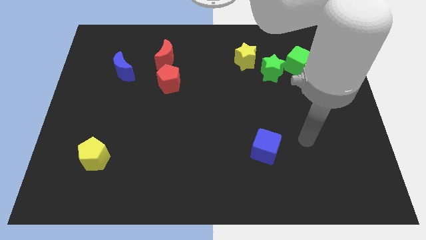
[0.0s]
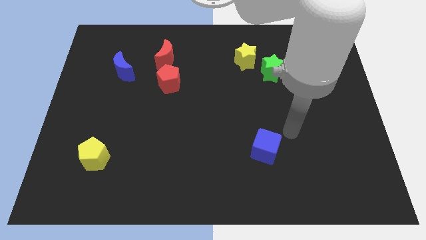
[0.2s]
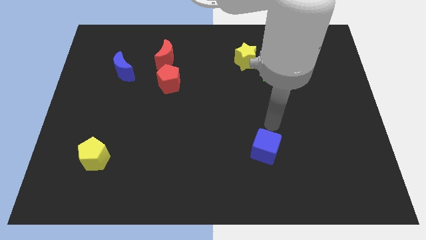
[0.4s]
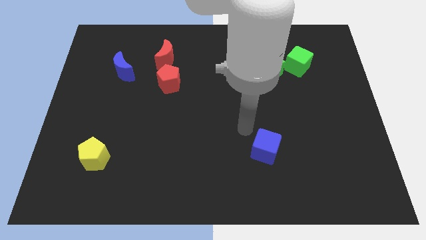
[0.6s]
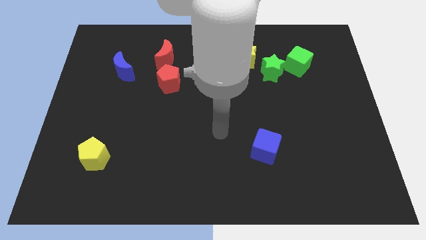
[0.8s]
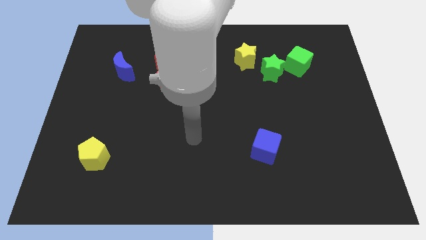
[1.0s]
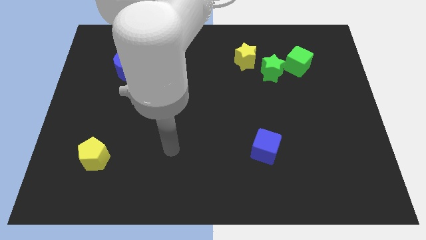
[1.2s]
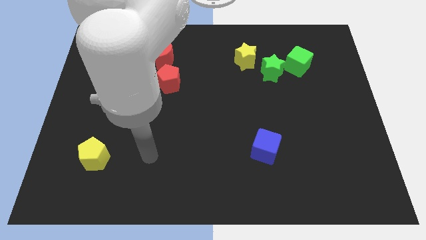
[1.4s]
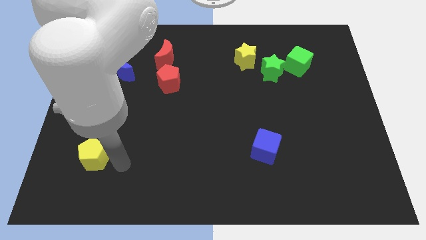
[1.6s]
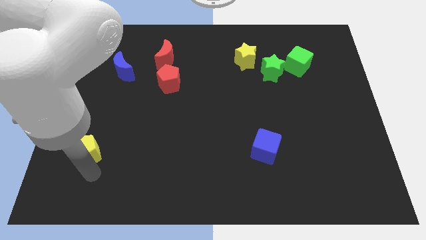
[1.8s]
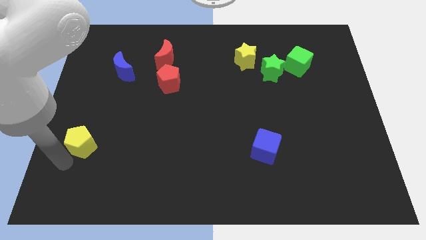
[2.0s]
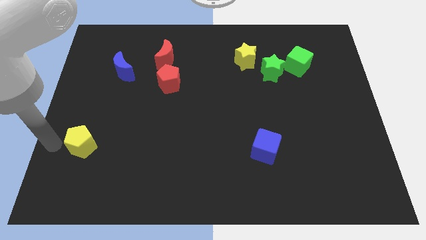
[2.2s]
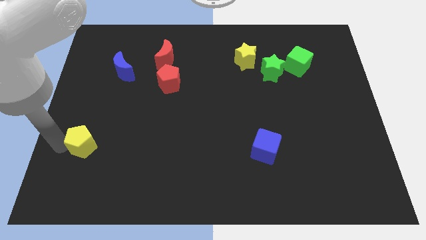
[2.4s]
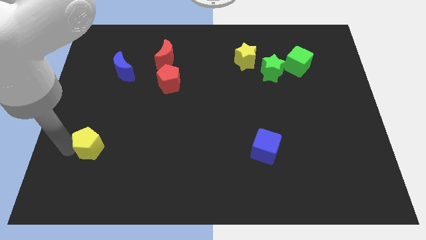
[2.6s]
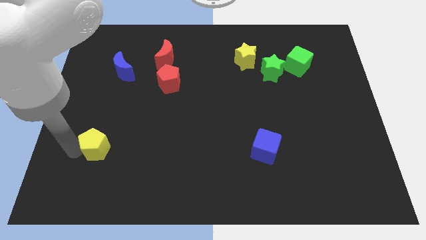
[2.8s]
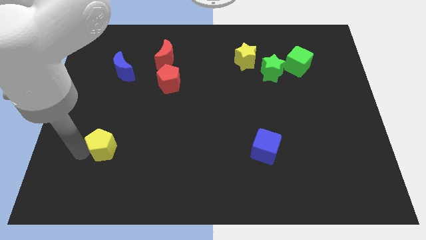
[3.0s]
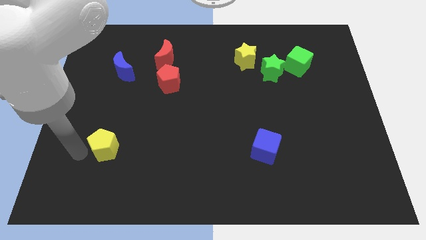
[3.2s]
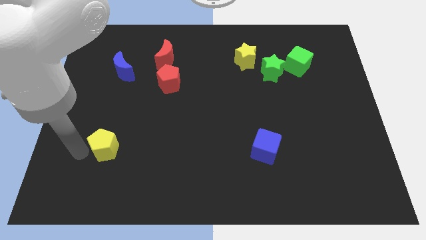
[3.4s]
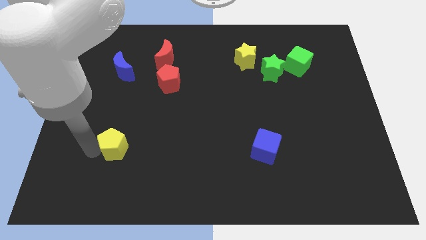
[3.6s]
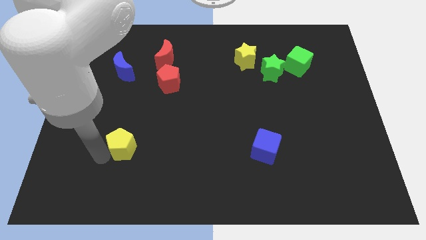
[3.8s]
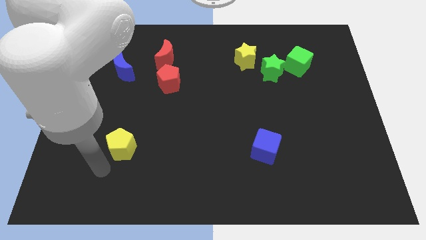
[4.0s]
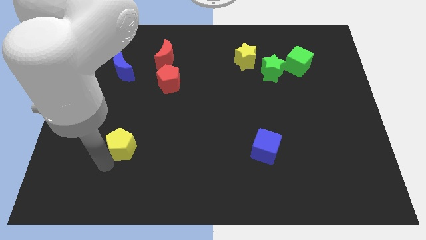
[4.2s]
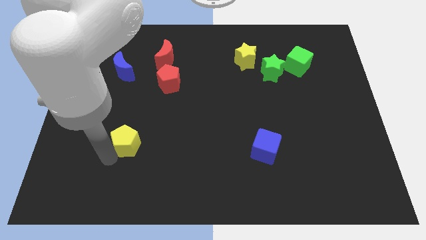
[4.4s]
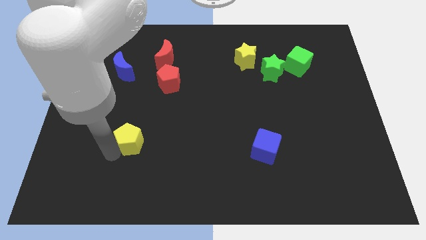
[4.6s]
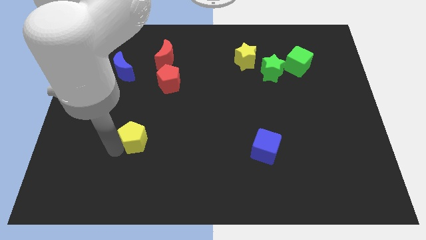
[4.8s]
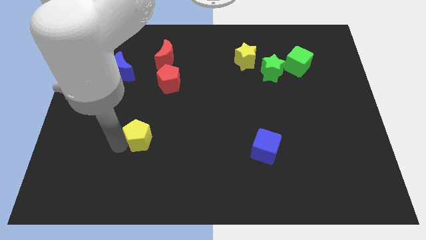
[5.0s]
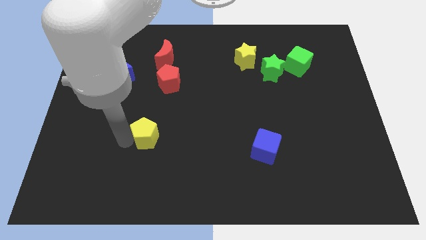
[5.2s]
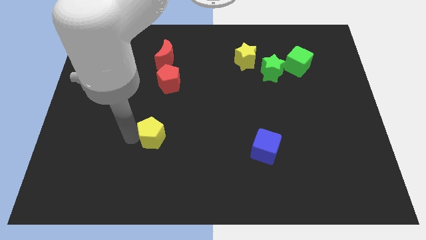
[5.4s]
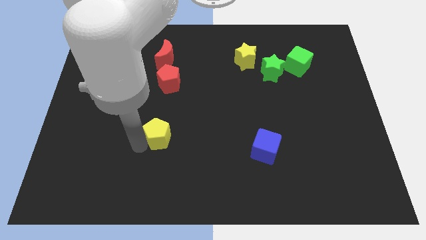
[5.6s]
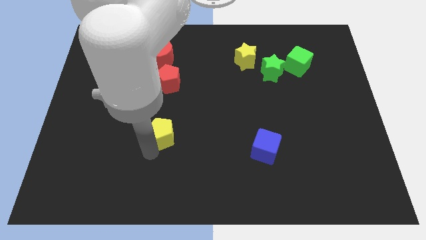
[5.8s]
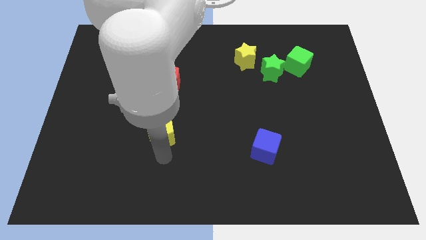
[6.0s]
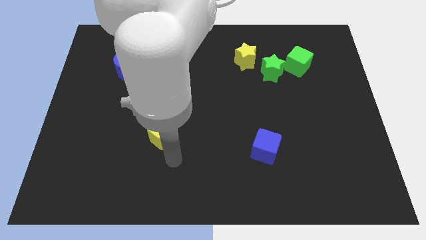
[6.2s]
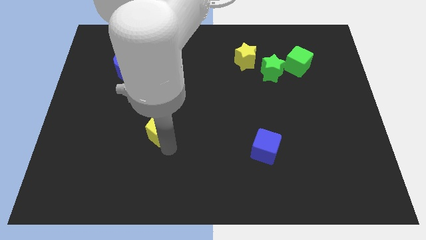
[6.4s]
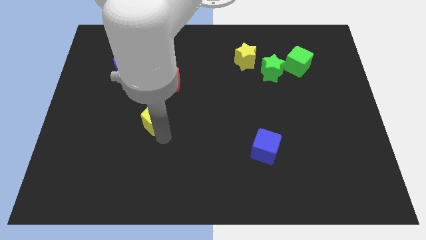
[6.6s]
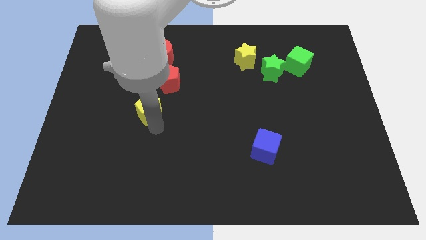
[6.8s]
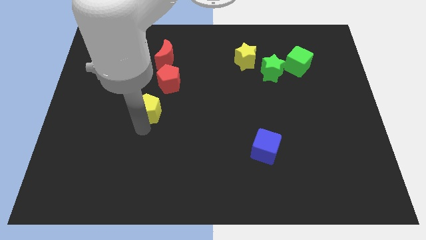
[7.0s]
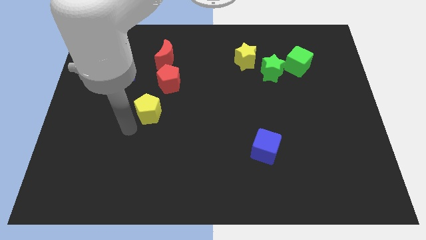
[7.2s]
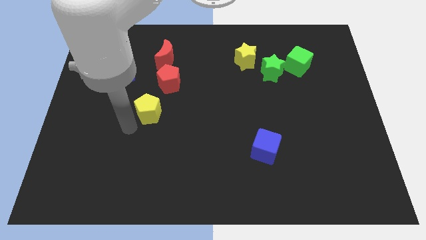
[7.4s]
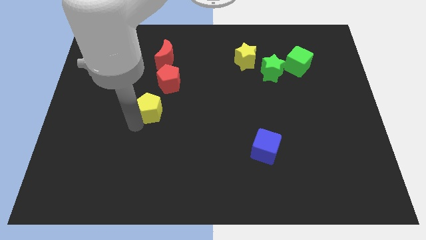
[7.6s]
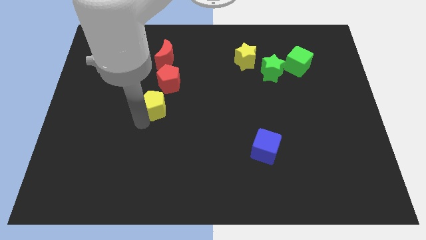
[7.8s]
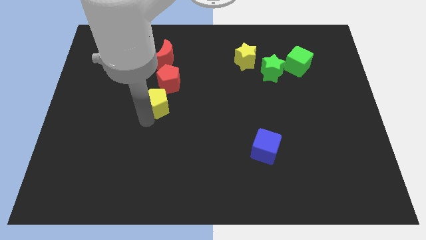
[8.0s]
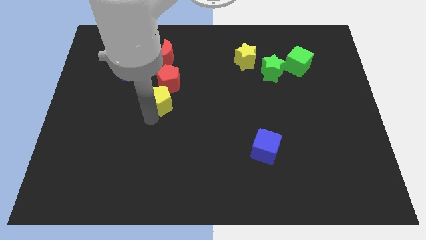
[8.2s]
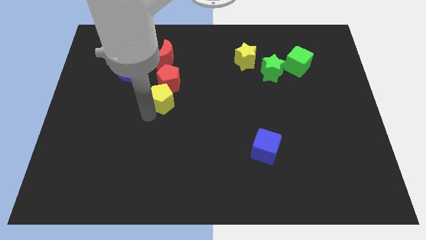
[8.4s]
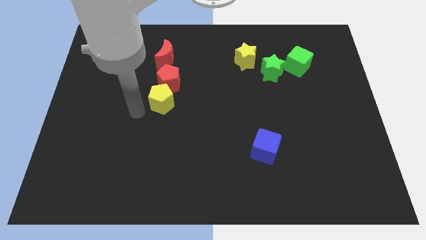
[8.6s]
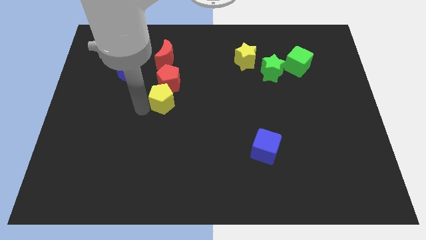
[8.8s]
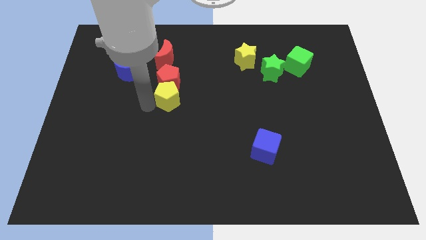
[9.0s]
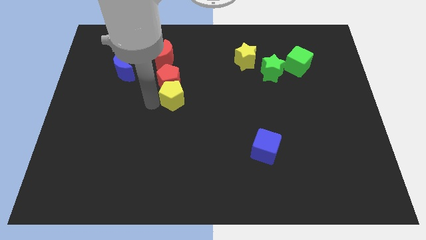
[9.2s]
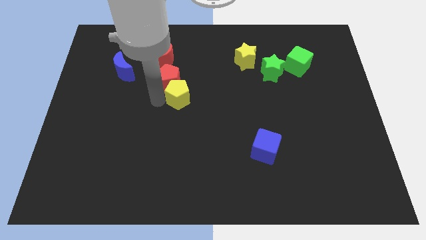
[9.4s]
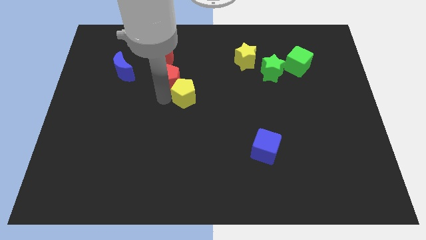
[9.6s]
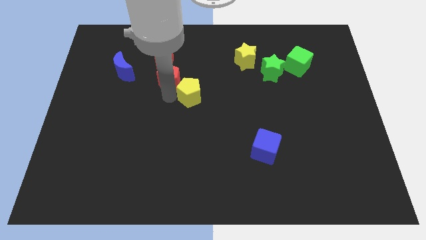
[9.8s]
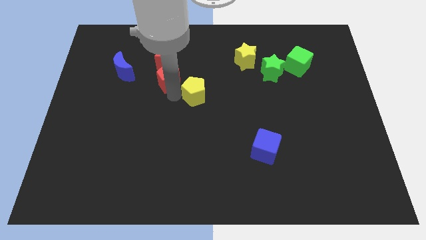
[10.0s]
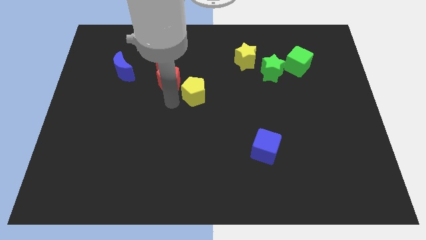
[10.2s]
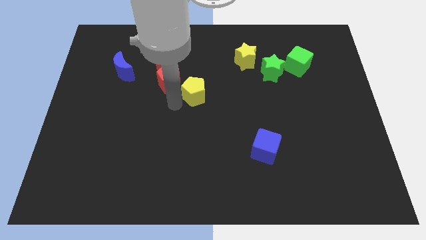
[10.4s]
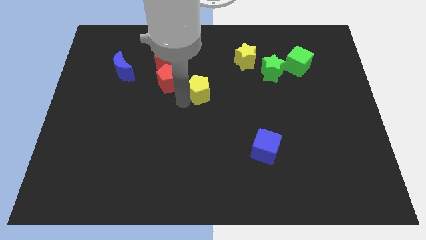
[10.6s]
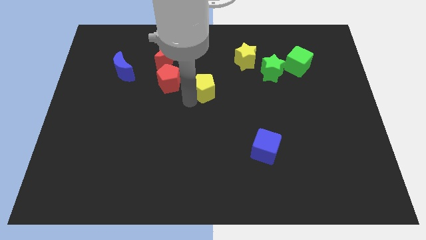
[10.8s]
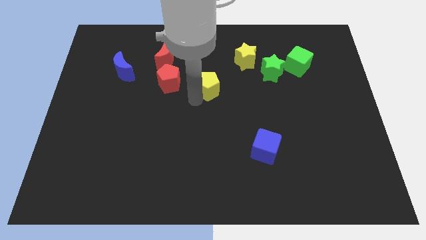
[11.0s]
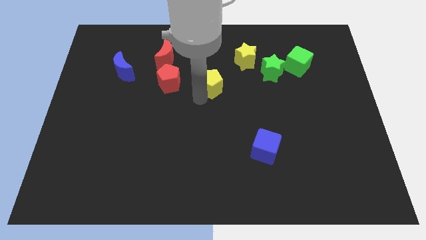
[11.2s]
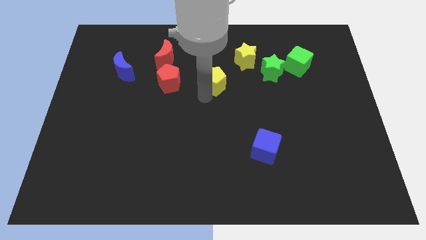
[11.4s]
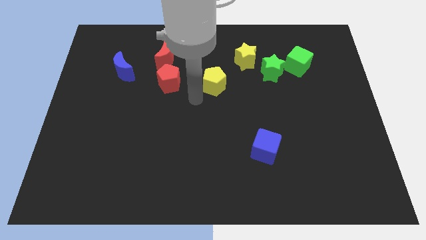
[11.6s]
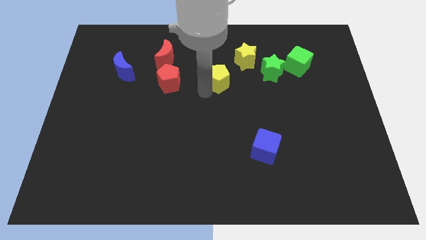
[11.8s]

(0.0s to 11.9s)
slide the yellow pentagon left of the green star

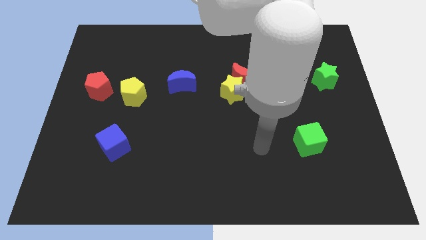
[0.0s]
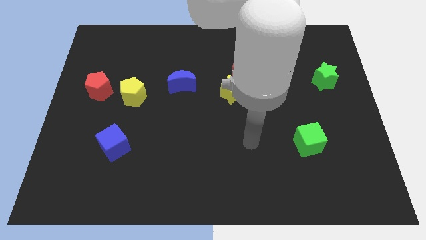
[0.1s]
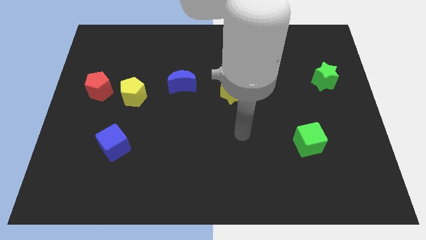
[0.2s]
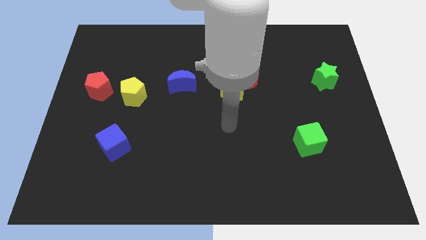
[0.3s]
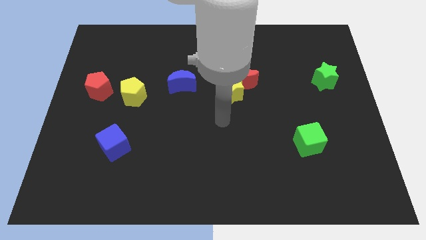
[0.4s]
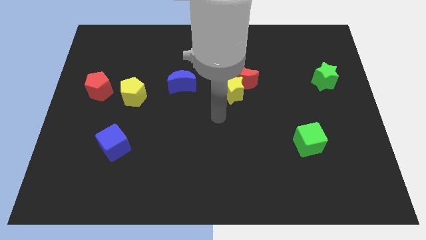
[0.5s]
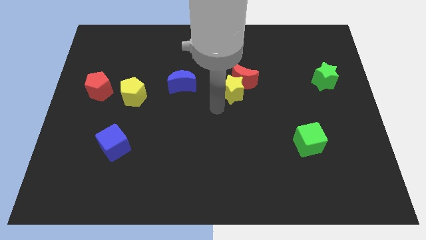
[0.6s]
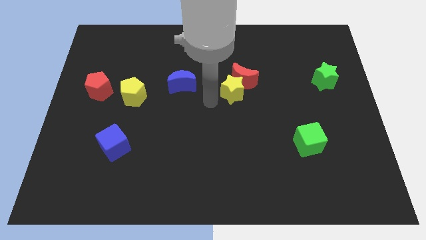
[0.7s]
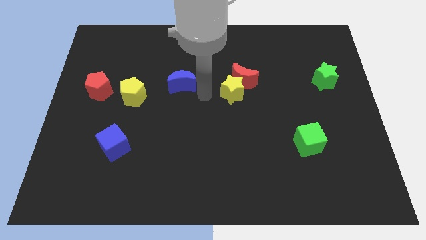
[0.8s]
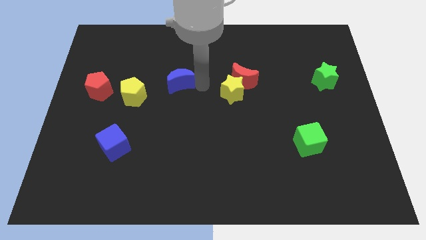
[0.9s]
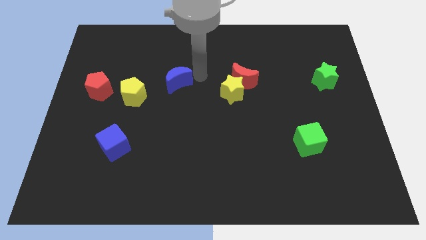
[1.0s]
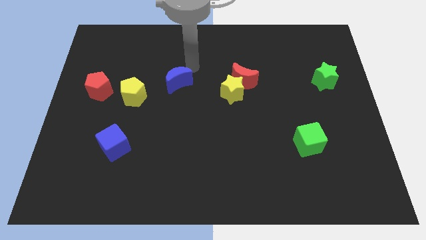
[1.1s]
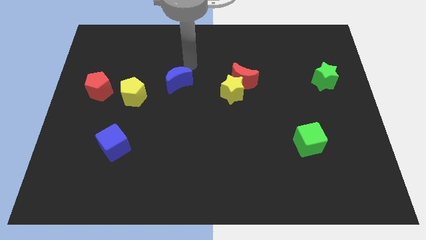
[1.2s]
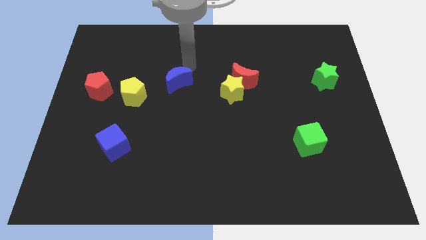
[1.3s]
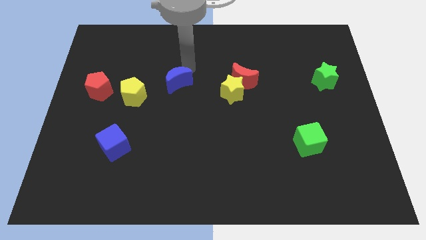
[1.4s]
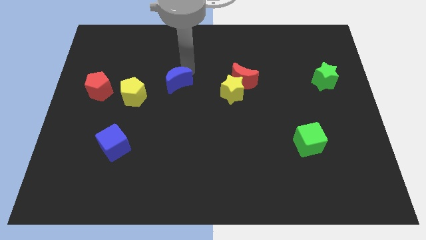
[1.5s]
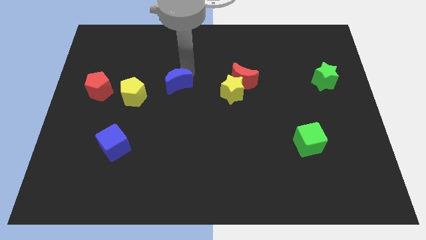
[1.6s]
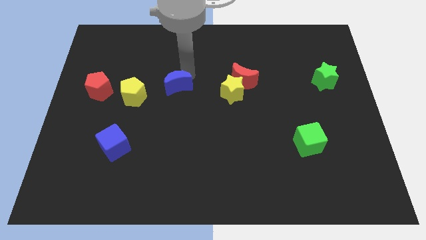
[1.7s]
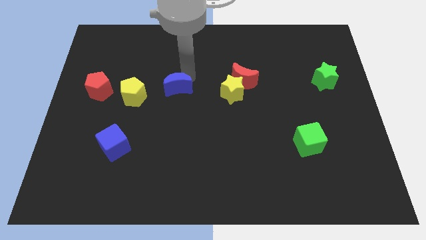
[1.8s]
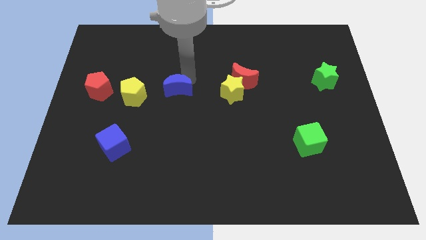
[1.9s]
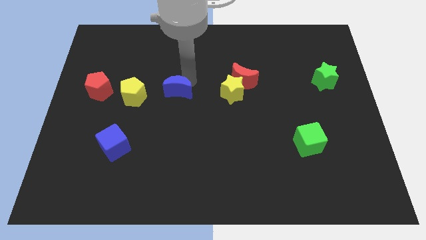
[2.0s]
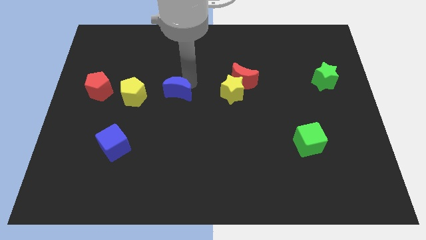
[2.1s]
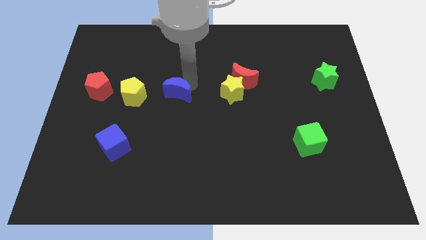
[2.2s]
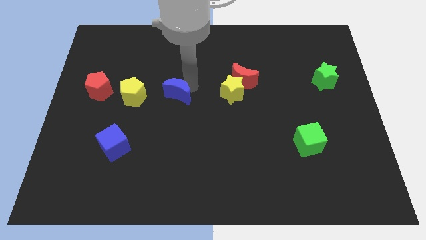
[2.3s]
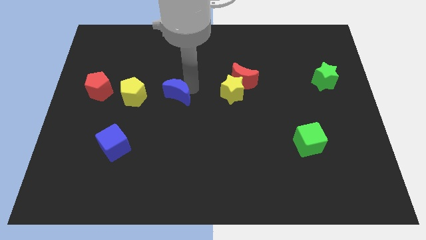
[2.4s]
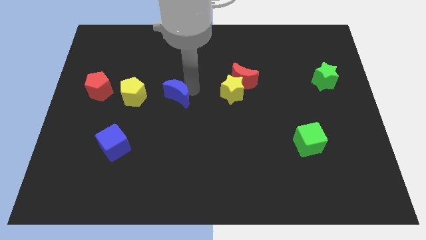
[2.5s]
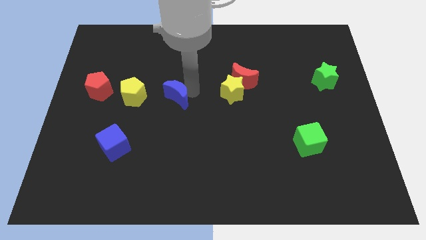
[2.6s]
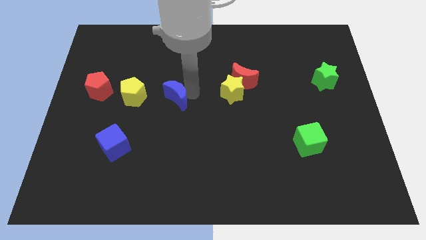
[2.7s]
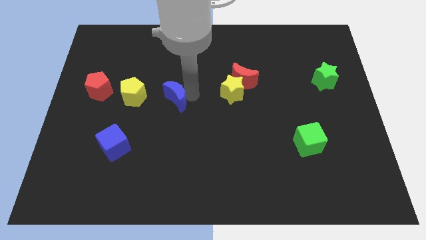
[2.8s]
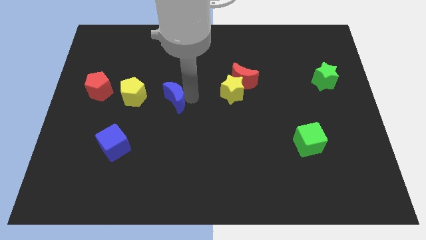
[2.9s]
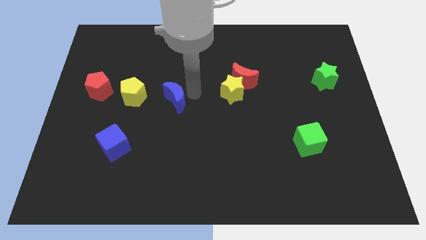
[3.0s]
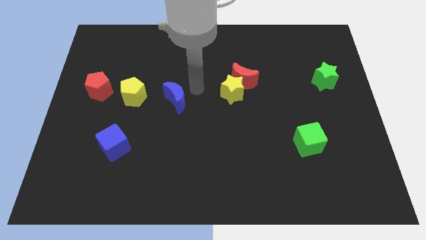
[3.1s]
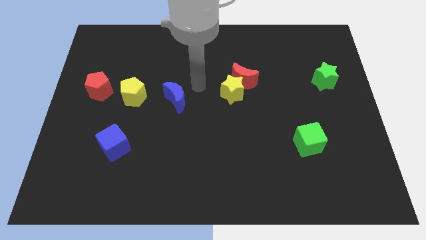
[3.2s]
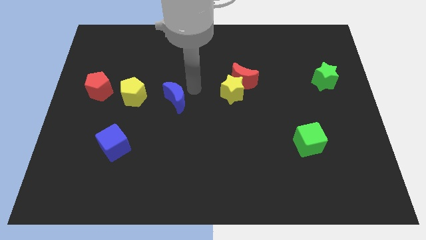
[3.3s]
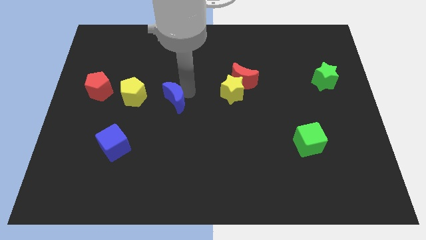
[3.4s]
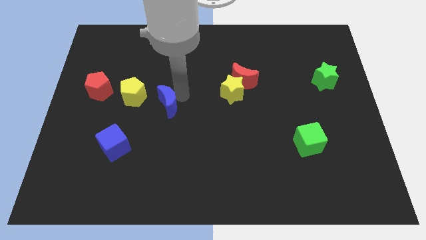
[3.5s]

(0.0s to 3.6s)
move the blue moon to the bottom right side of the yellow pentagon
